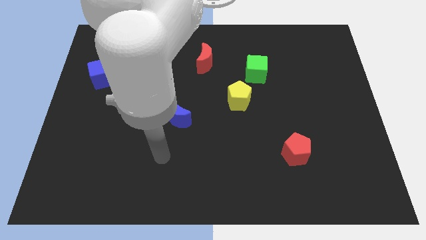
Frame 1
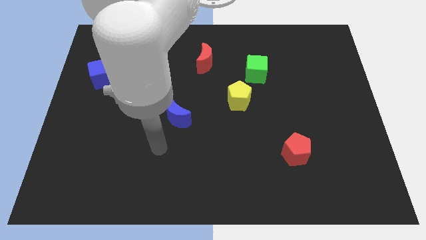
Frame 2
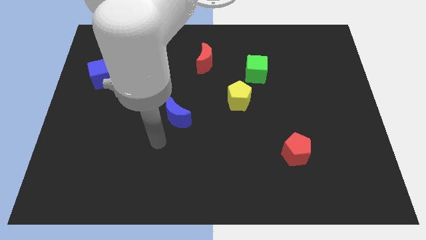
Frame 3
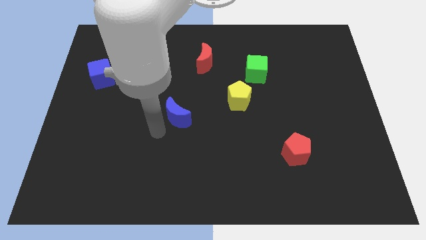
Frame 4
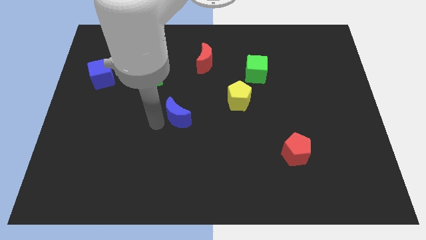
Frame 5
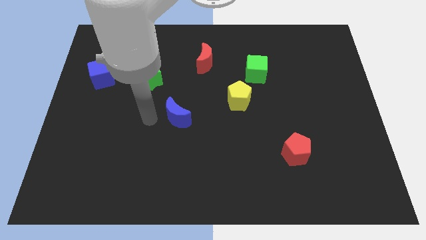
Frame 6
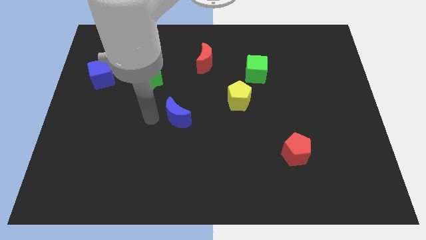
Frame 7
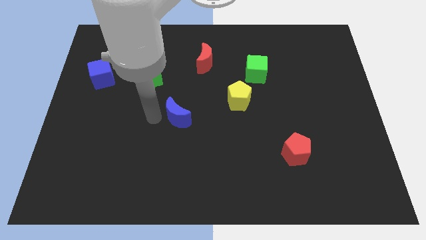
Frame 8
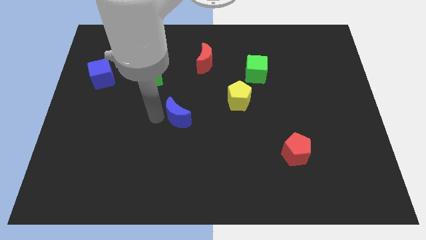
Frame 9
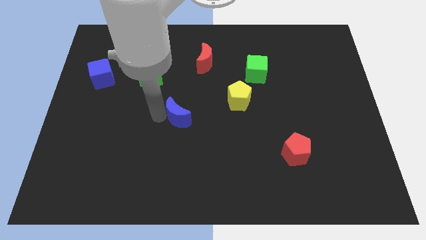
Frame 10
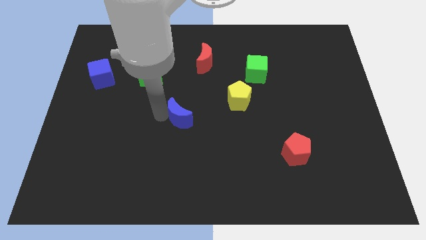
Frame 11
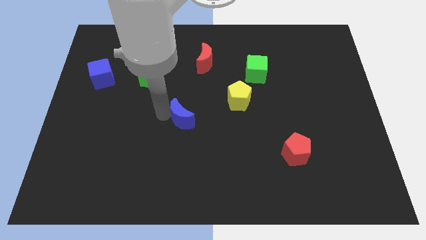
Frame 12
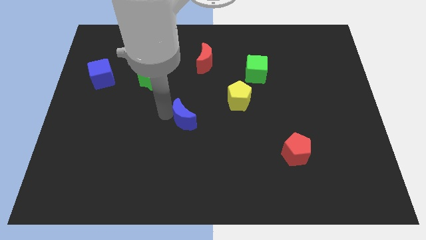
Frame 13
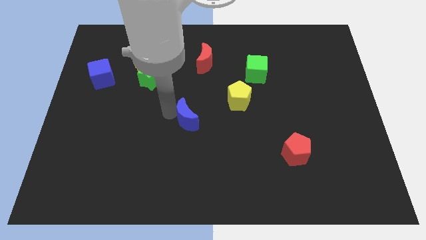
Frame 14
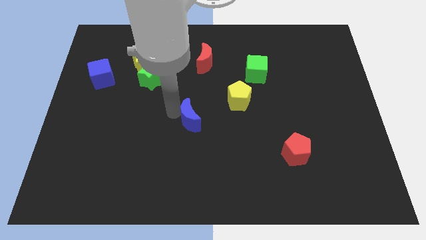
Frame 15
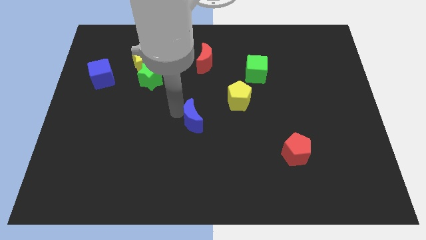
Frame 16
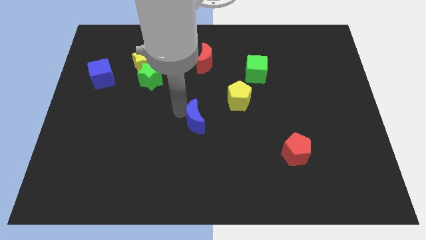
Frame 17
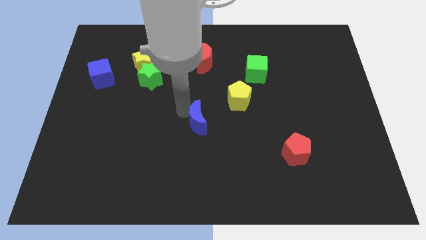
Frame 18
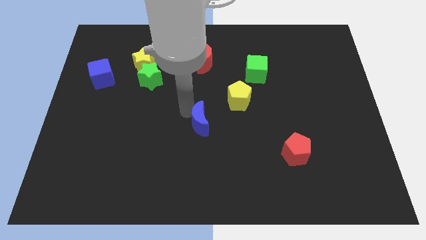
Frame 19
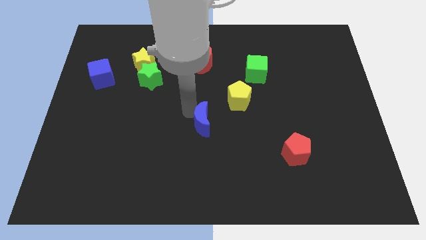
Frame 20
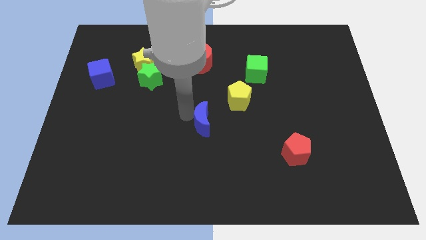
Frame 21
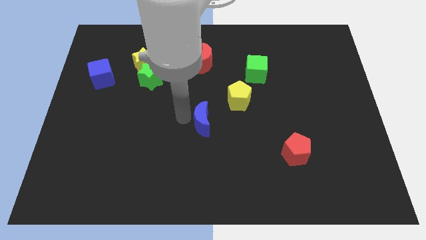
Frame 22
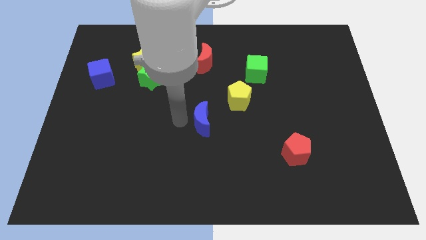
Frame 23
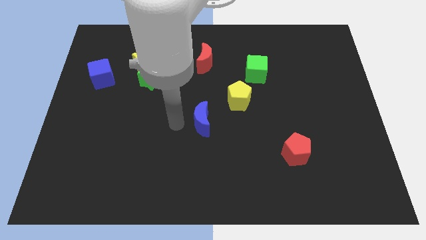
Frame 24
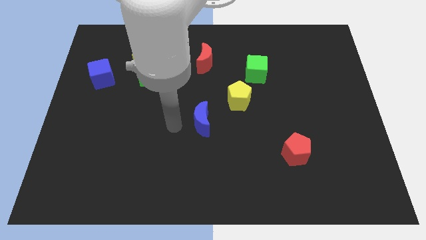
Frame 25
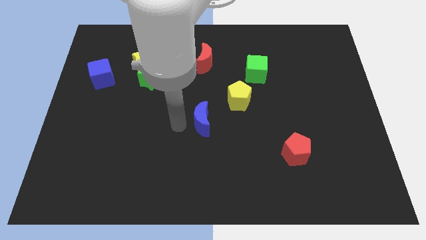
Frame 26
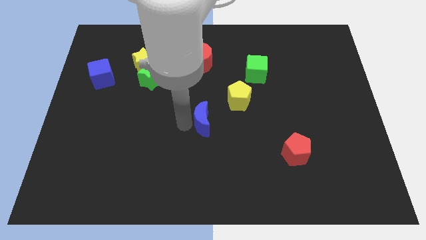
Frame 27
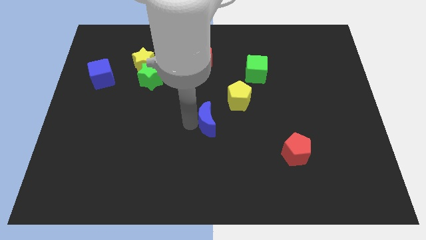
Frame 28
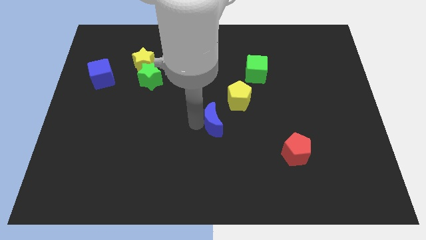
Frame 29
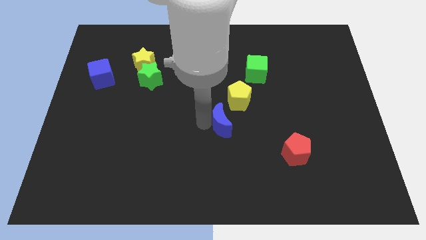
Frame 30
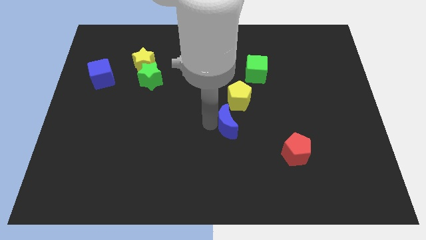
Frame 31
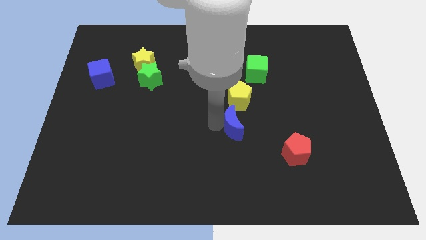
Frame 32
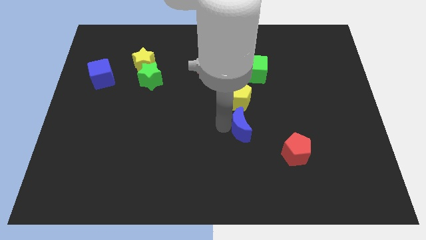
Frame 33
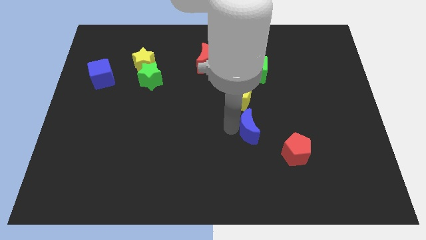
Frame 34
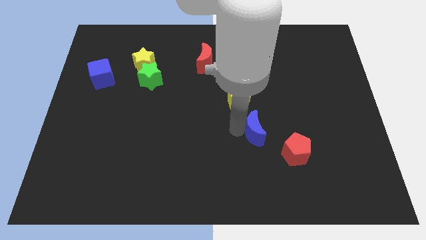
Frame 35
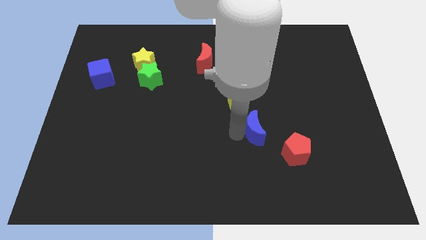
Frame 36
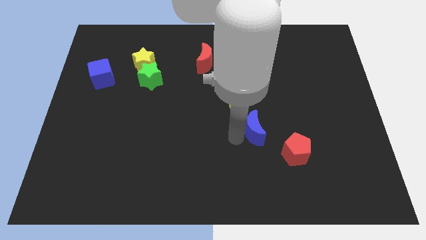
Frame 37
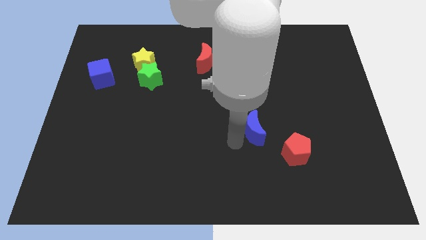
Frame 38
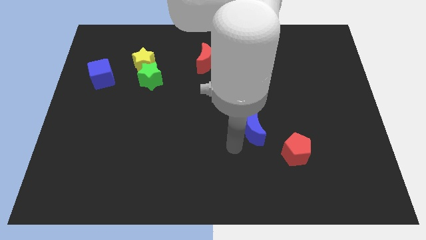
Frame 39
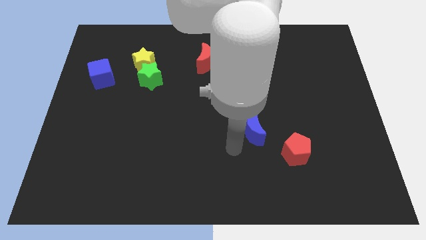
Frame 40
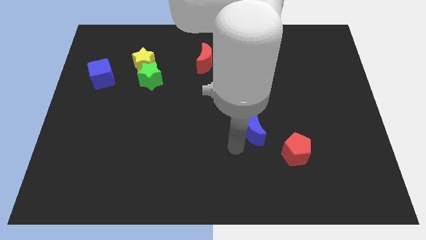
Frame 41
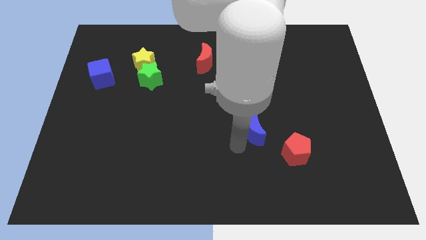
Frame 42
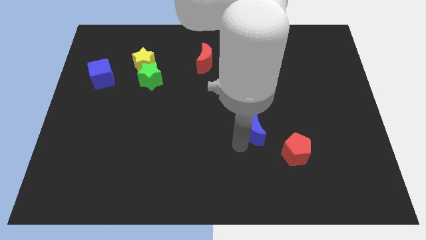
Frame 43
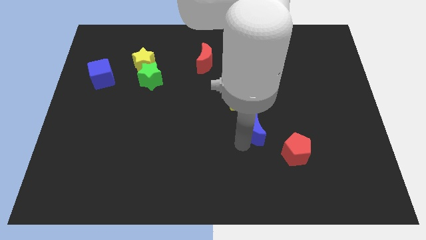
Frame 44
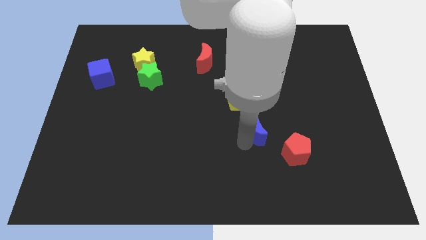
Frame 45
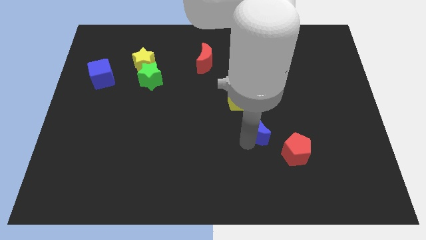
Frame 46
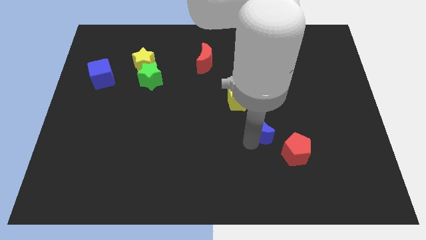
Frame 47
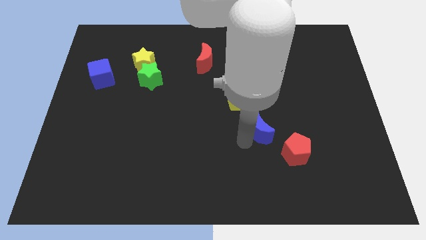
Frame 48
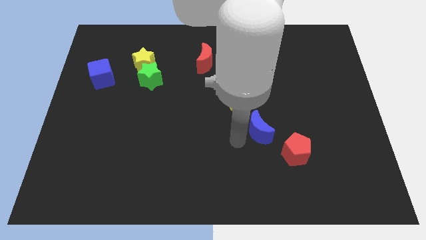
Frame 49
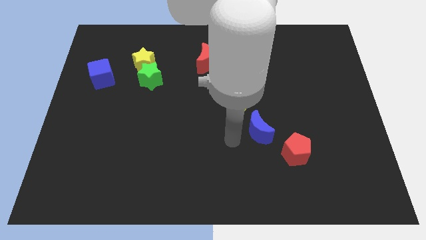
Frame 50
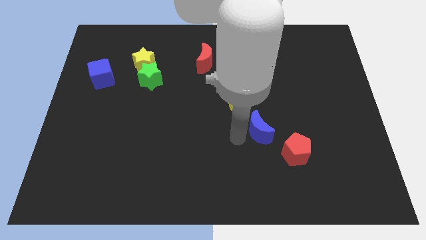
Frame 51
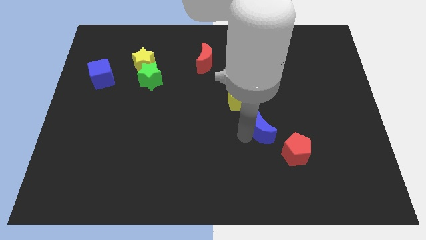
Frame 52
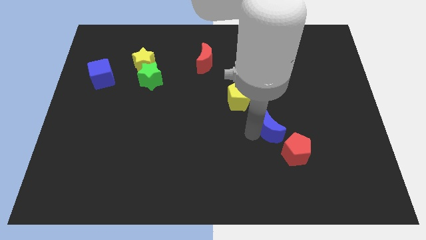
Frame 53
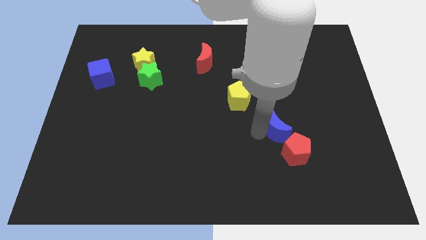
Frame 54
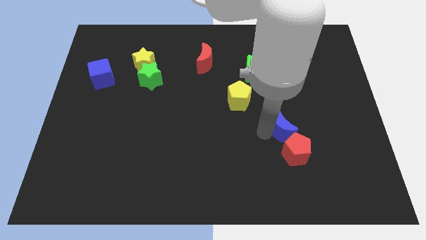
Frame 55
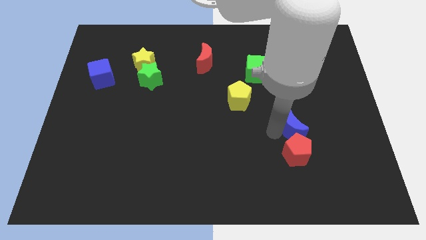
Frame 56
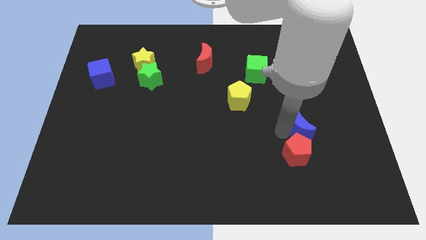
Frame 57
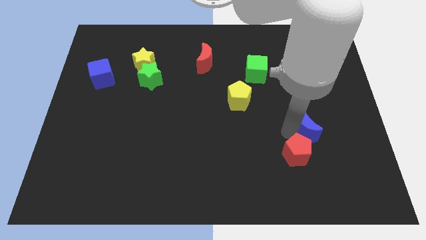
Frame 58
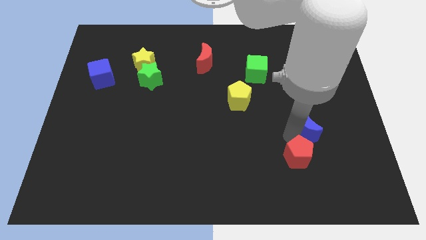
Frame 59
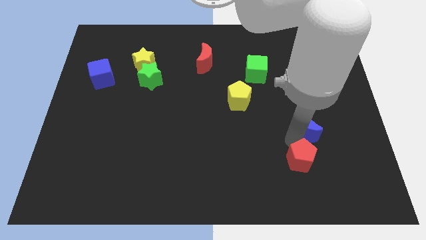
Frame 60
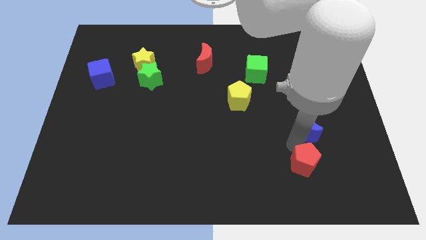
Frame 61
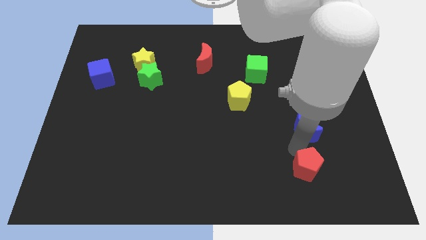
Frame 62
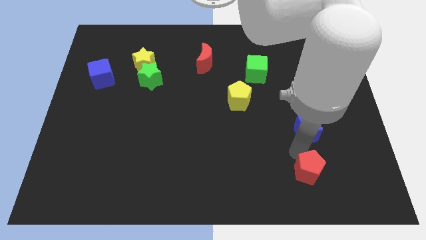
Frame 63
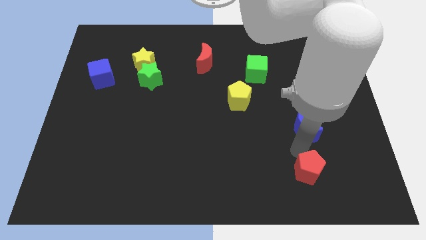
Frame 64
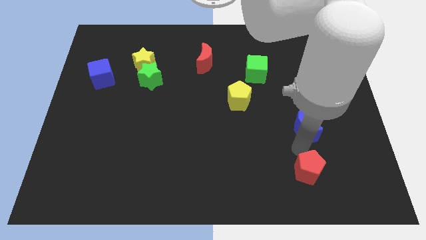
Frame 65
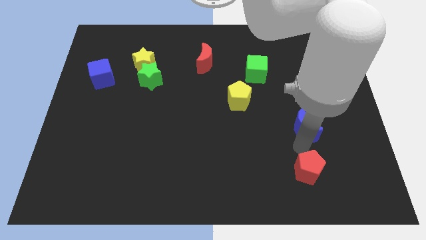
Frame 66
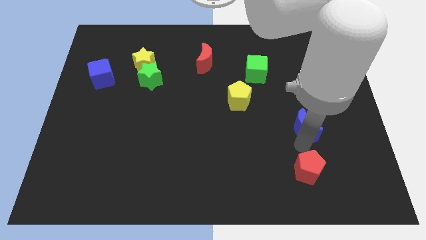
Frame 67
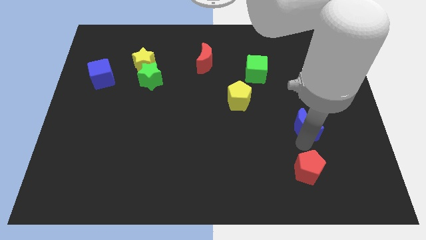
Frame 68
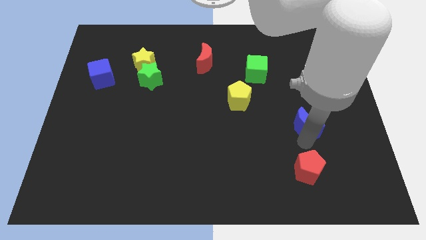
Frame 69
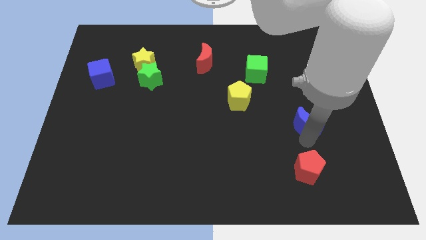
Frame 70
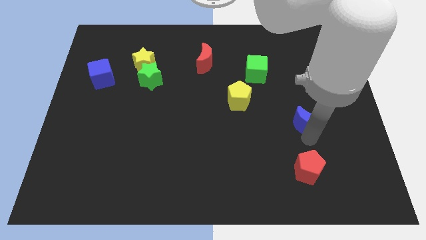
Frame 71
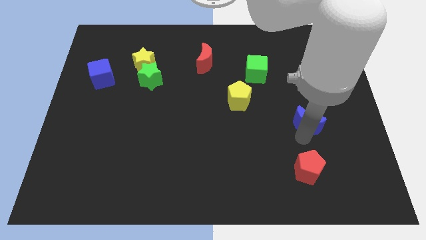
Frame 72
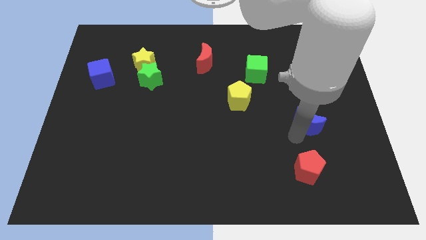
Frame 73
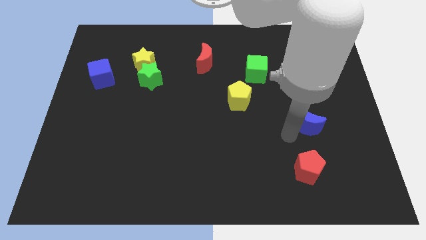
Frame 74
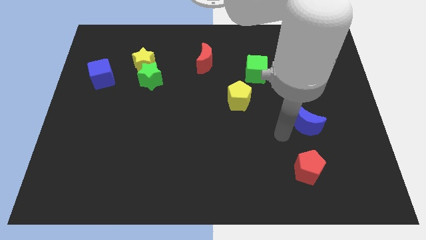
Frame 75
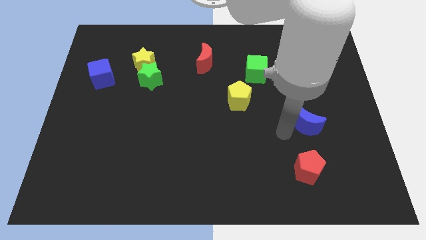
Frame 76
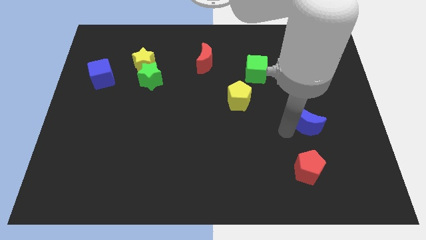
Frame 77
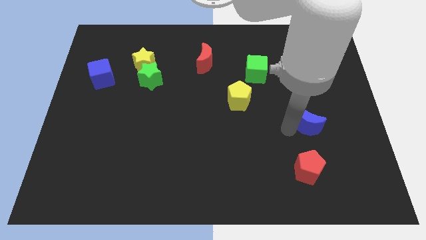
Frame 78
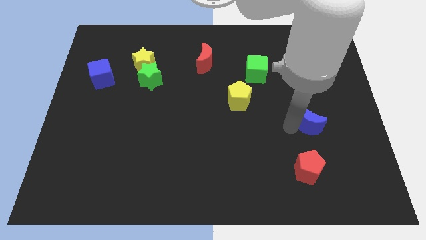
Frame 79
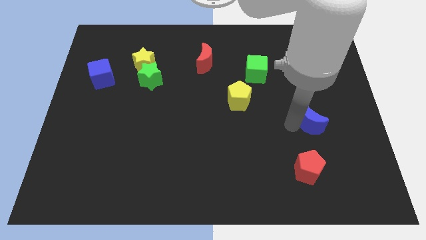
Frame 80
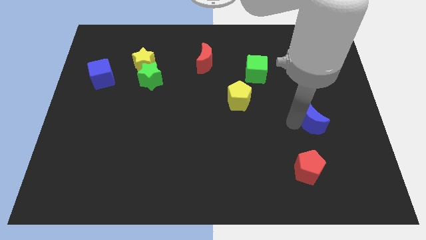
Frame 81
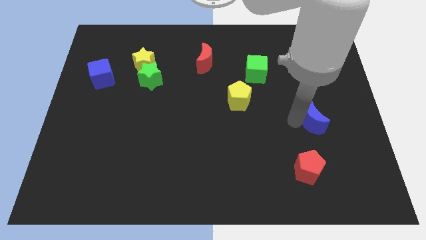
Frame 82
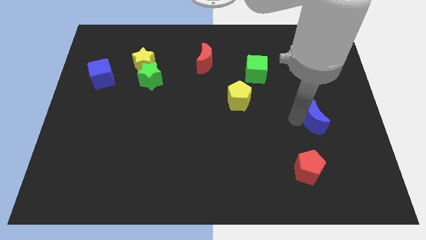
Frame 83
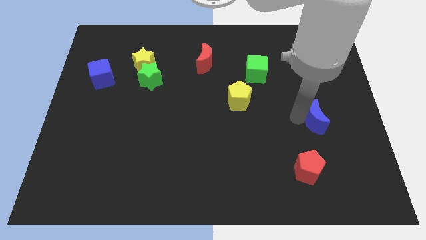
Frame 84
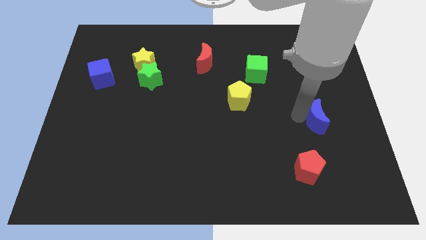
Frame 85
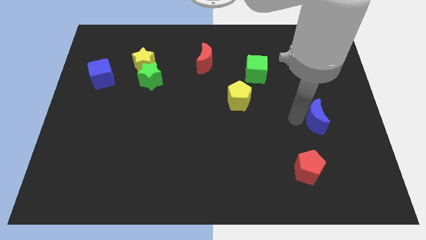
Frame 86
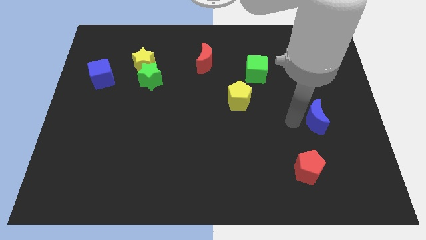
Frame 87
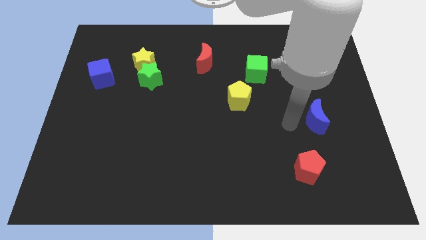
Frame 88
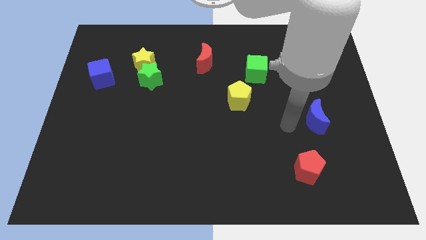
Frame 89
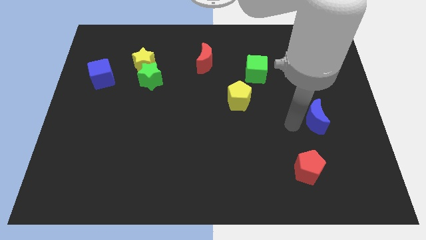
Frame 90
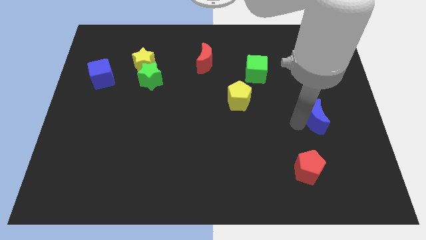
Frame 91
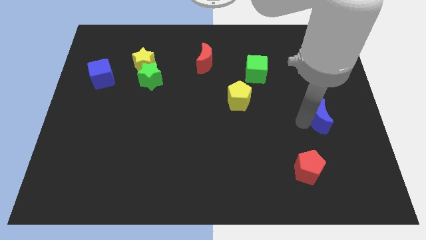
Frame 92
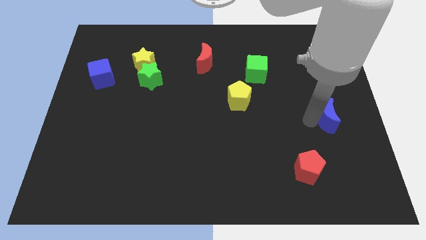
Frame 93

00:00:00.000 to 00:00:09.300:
move the blue moon to the right side
